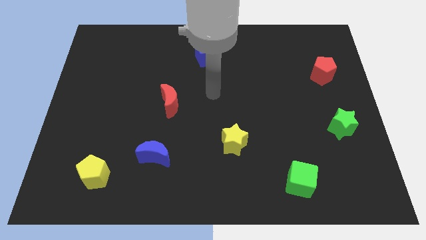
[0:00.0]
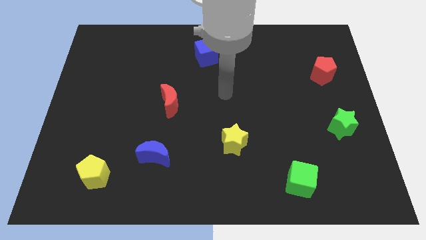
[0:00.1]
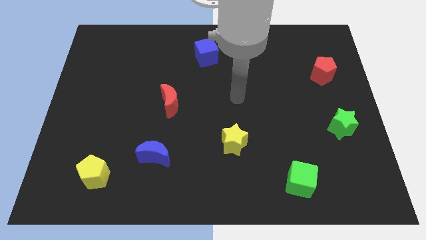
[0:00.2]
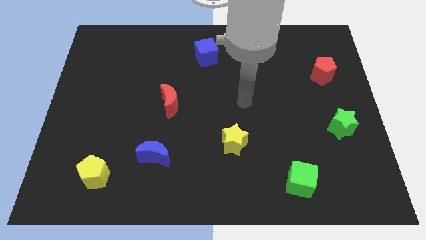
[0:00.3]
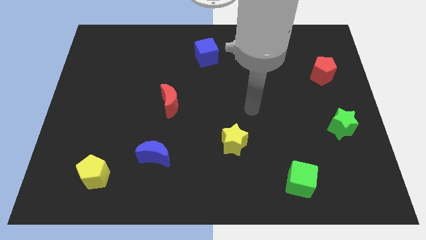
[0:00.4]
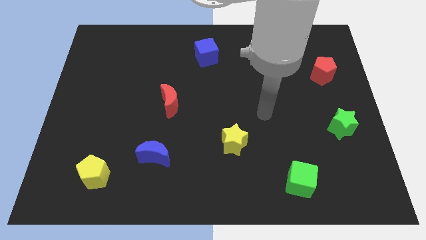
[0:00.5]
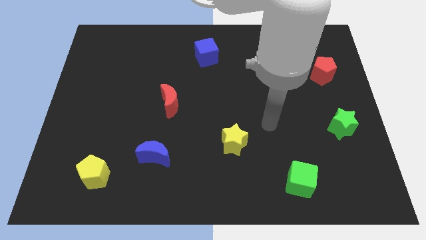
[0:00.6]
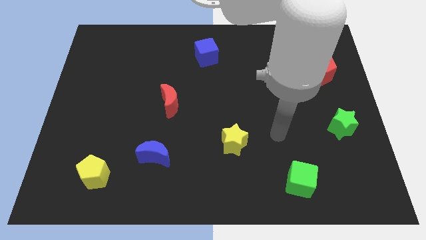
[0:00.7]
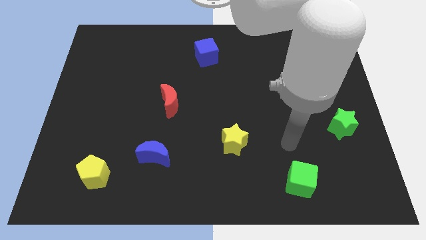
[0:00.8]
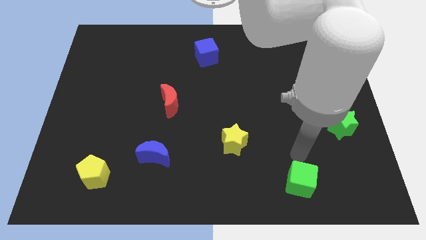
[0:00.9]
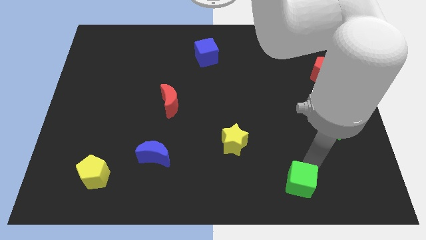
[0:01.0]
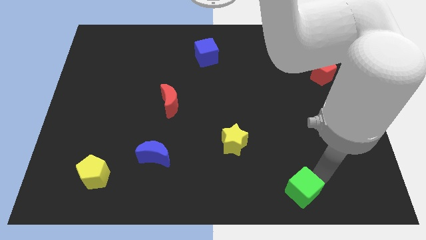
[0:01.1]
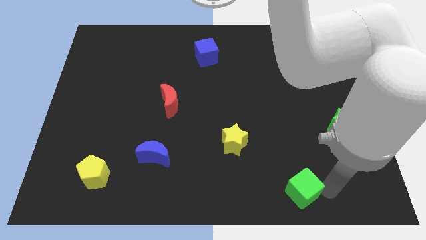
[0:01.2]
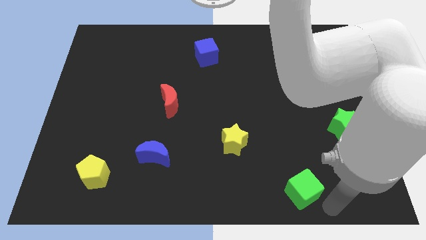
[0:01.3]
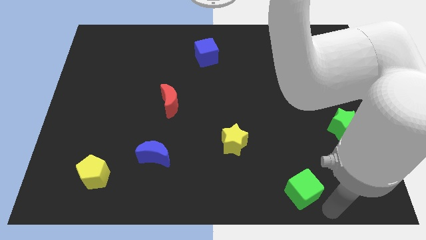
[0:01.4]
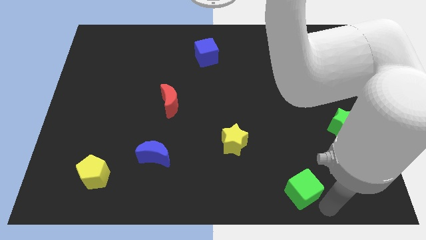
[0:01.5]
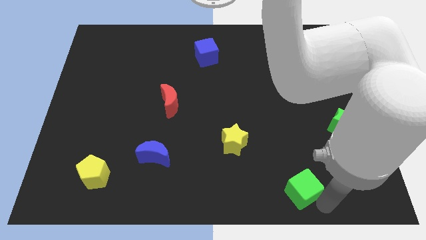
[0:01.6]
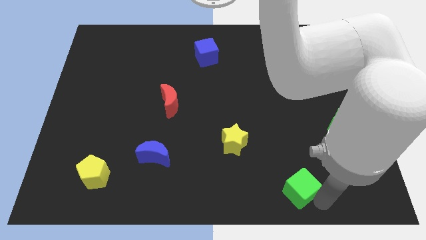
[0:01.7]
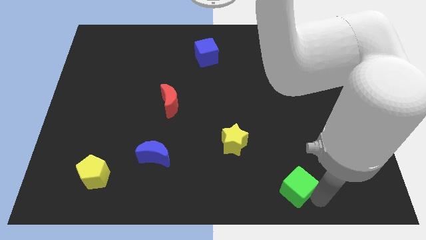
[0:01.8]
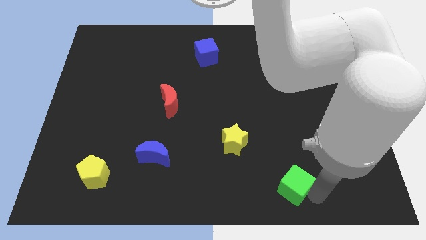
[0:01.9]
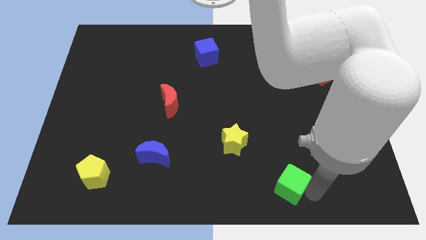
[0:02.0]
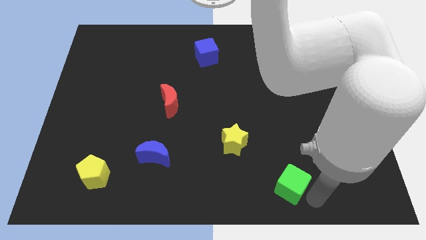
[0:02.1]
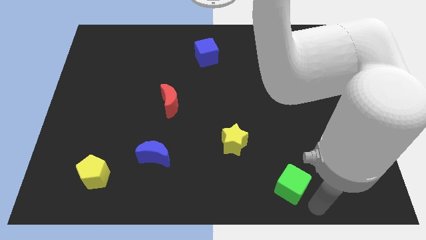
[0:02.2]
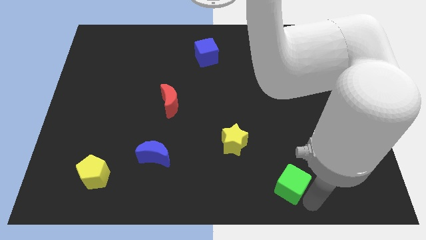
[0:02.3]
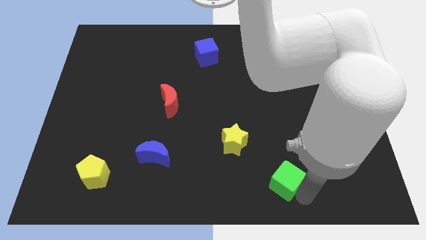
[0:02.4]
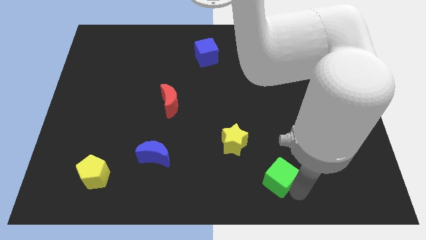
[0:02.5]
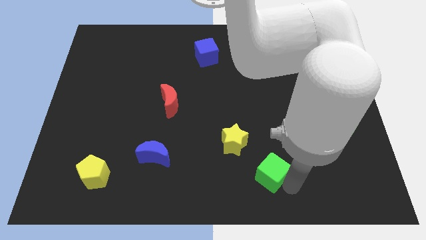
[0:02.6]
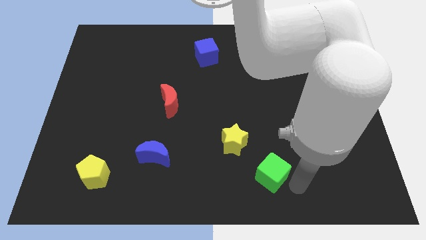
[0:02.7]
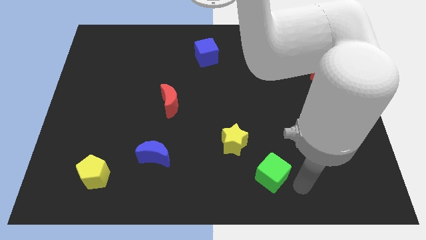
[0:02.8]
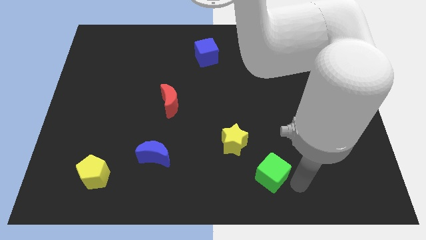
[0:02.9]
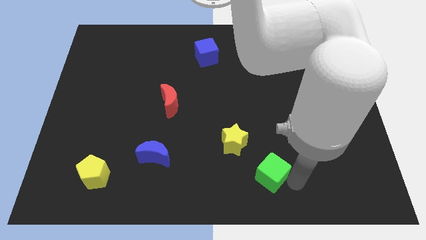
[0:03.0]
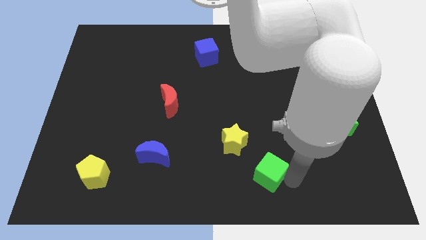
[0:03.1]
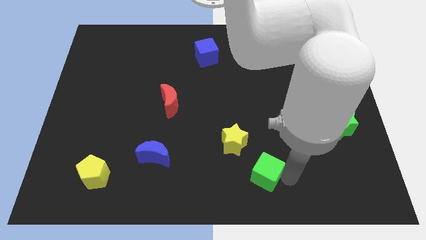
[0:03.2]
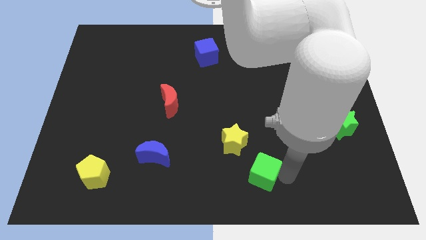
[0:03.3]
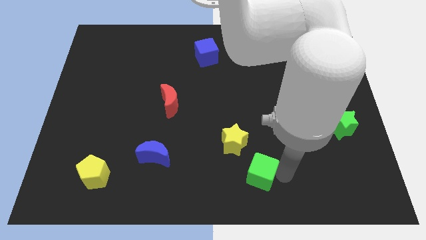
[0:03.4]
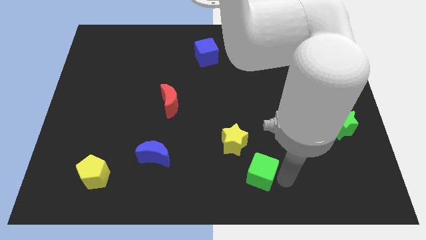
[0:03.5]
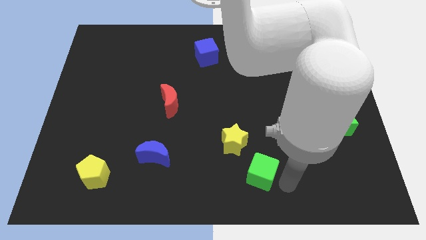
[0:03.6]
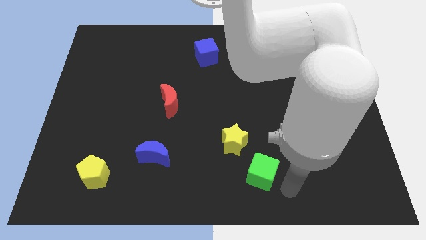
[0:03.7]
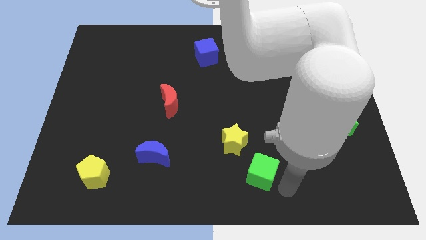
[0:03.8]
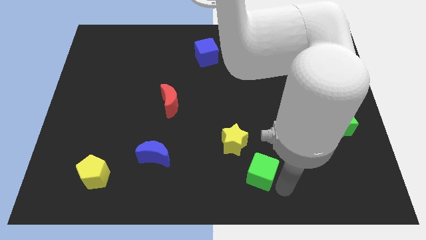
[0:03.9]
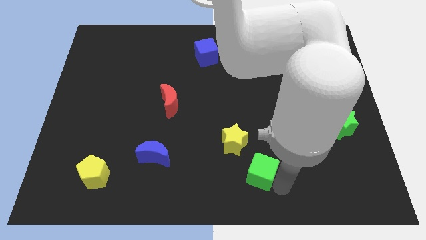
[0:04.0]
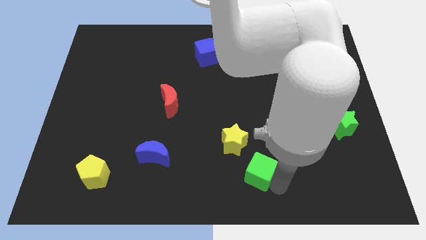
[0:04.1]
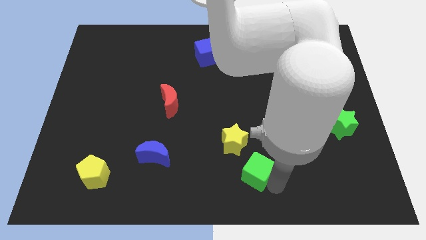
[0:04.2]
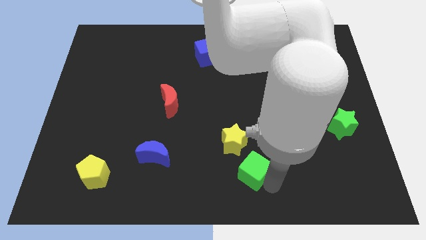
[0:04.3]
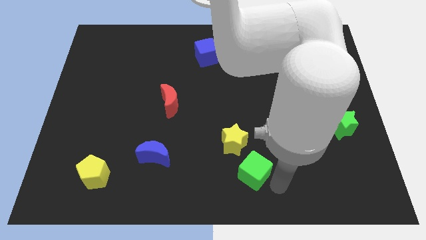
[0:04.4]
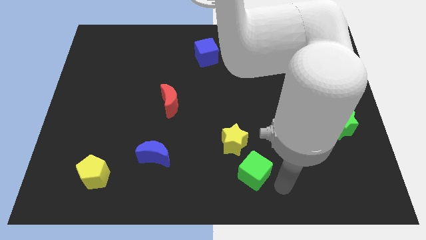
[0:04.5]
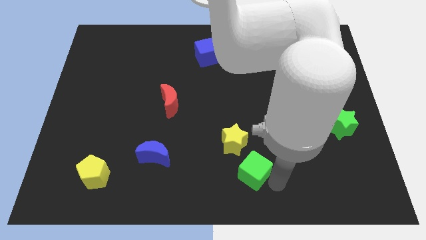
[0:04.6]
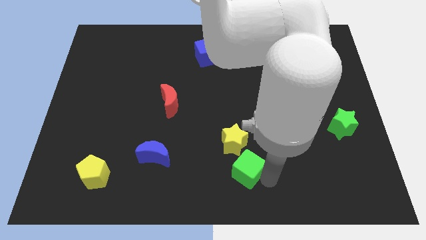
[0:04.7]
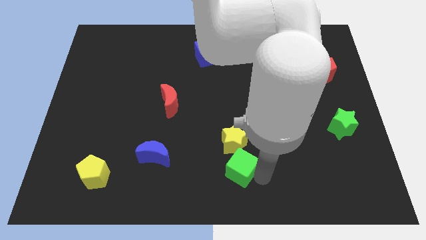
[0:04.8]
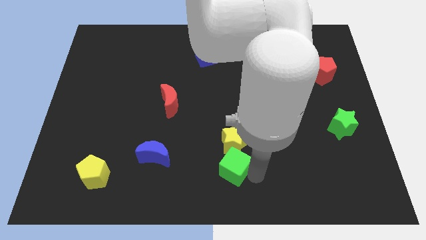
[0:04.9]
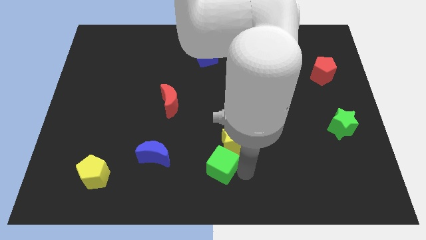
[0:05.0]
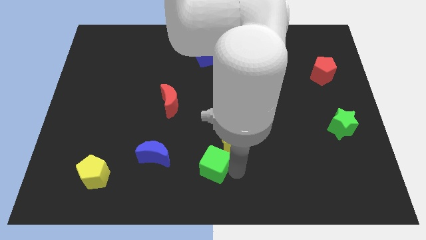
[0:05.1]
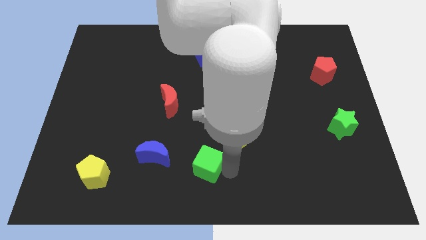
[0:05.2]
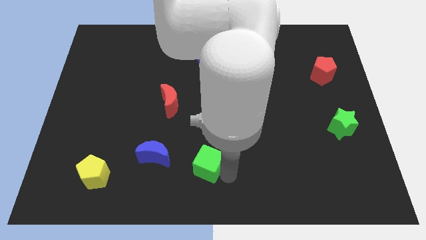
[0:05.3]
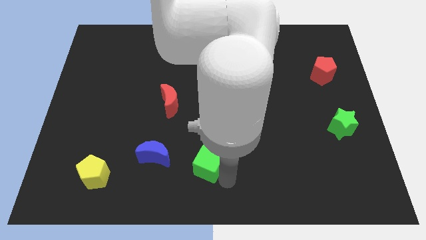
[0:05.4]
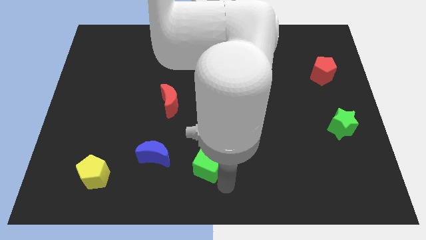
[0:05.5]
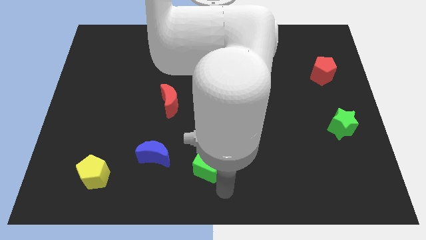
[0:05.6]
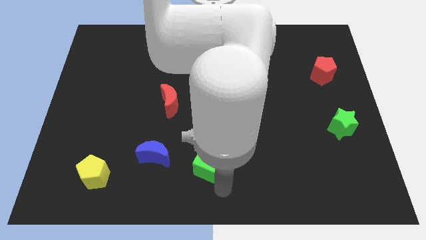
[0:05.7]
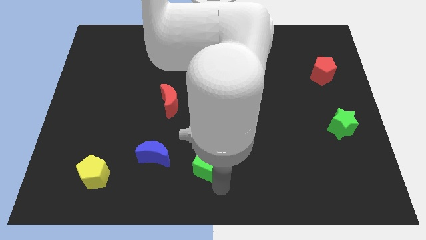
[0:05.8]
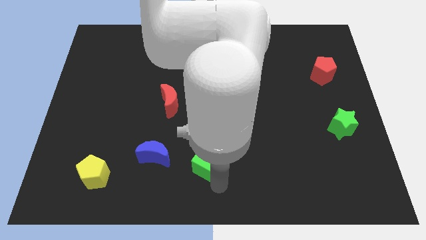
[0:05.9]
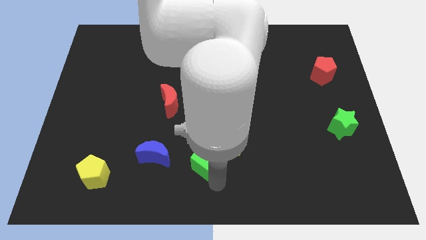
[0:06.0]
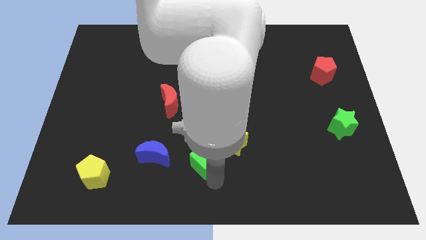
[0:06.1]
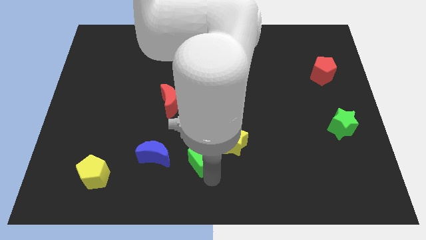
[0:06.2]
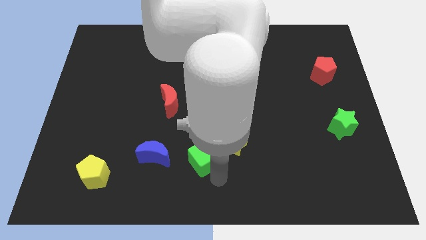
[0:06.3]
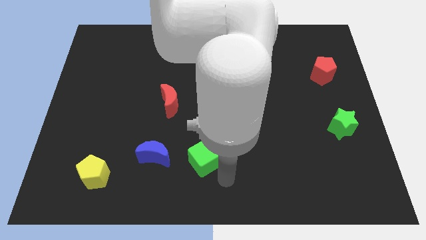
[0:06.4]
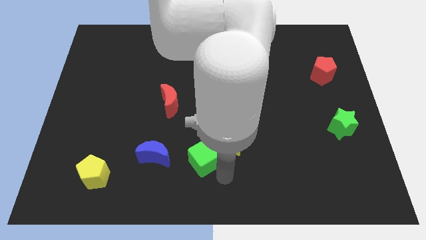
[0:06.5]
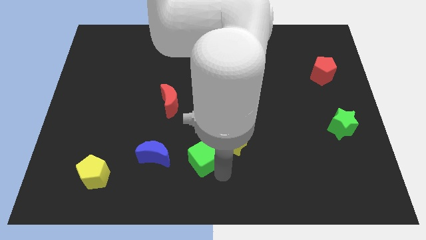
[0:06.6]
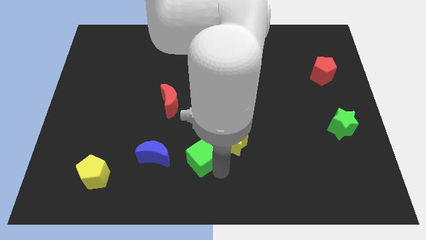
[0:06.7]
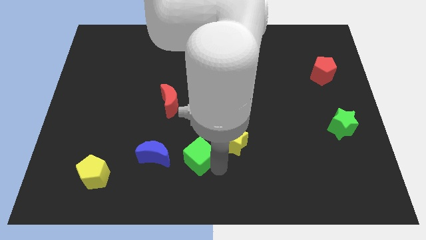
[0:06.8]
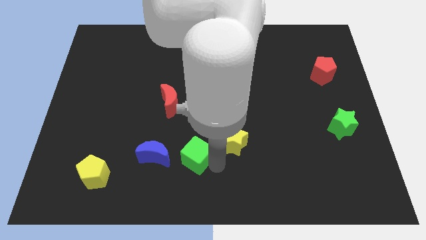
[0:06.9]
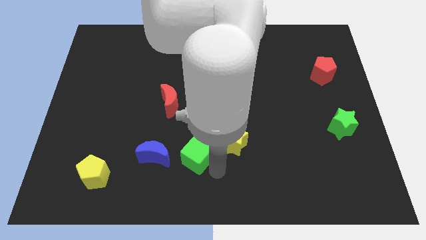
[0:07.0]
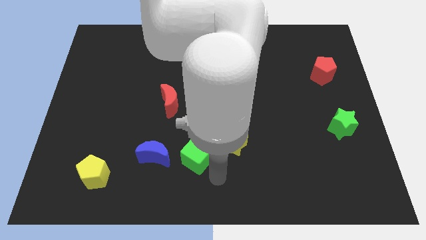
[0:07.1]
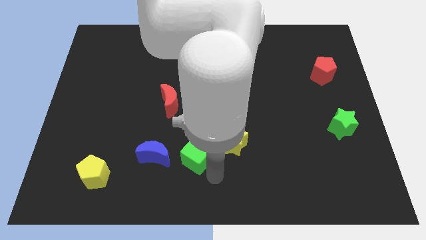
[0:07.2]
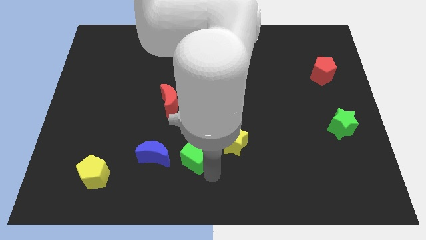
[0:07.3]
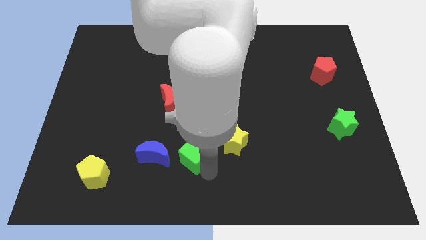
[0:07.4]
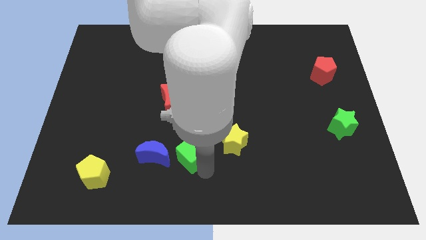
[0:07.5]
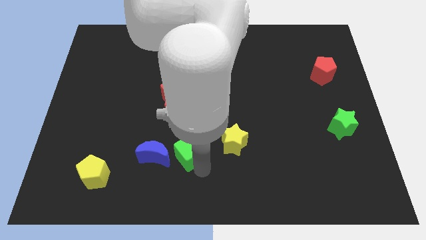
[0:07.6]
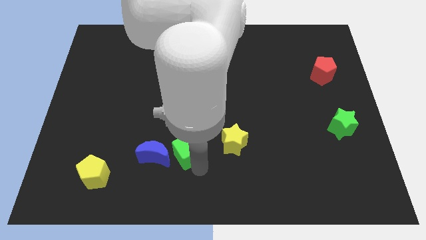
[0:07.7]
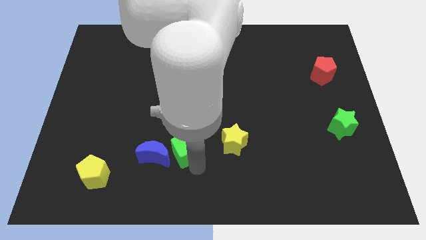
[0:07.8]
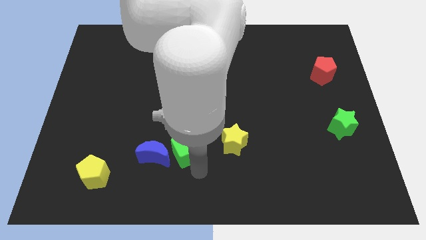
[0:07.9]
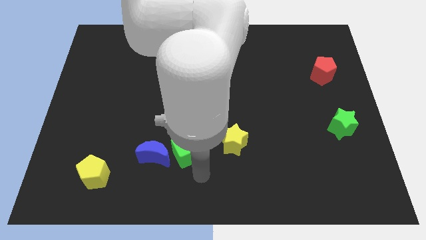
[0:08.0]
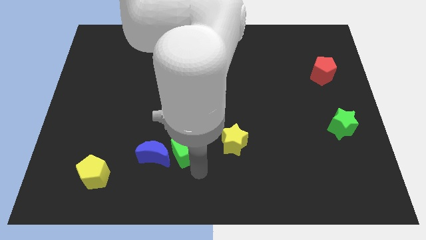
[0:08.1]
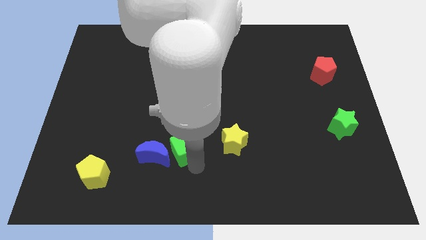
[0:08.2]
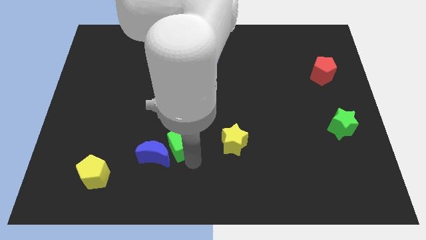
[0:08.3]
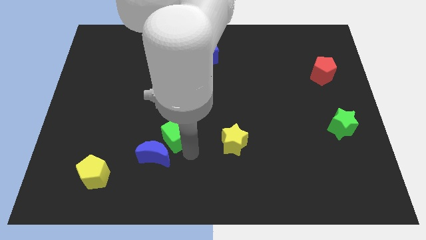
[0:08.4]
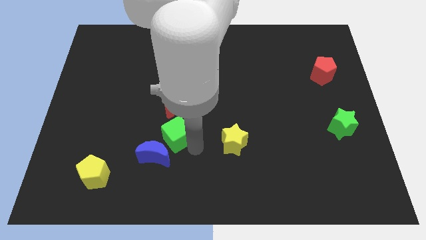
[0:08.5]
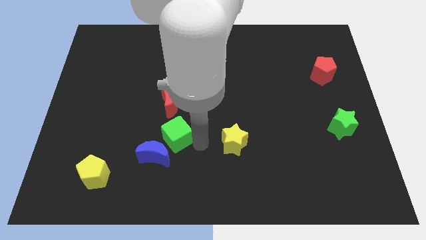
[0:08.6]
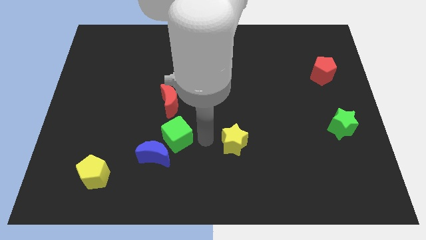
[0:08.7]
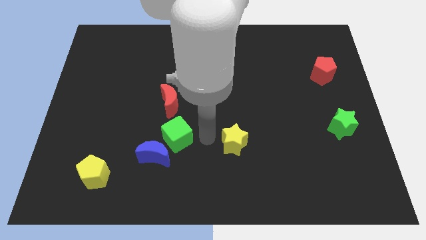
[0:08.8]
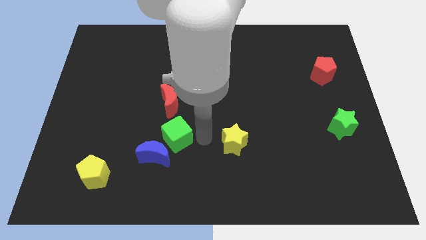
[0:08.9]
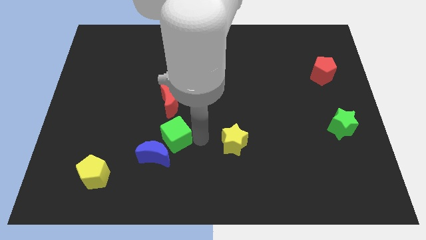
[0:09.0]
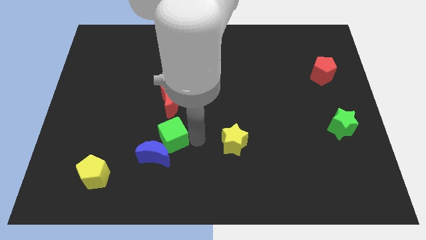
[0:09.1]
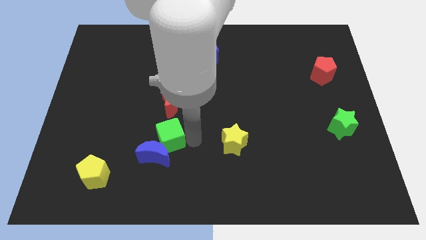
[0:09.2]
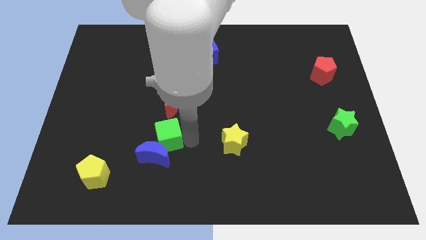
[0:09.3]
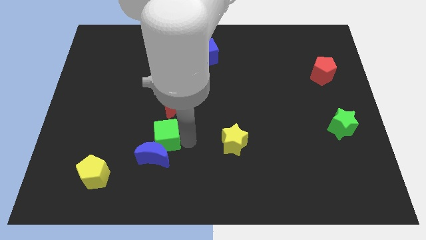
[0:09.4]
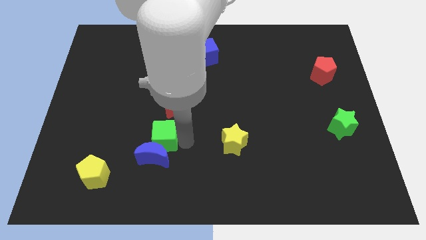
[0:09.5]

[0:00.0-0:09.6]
slide the green cube to the top left side of the blue moon
